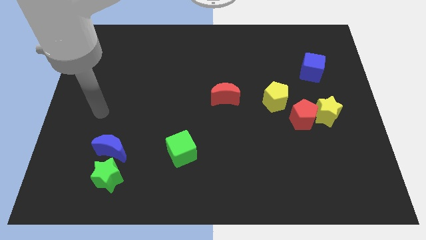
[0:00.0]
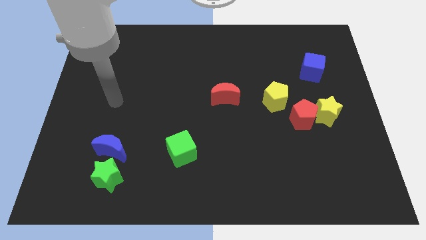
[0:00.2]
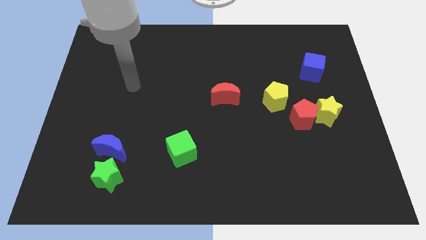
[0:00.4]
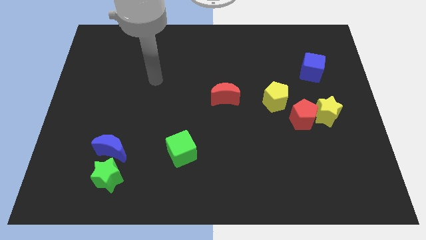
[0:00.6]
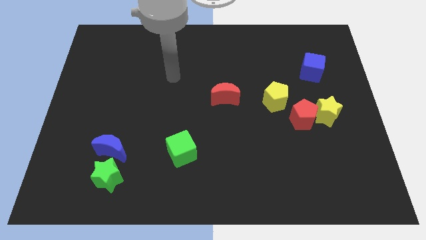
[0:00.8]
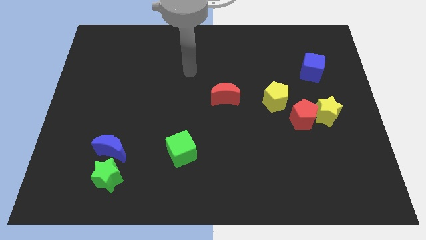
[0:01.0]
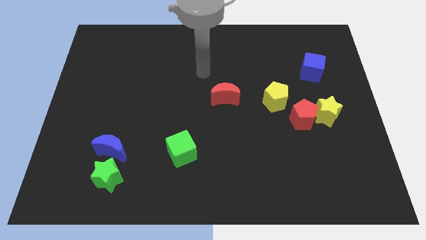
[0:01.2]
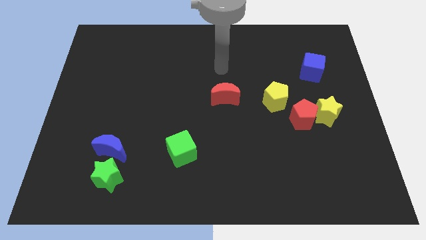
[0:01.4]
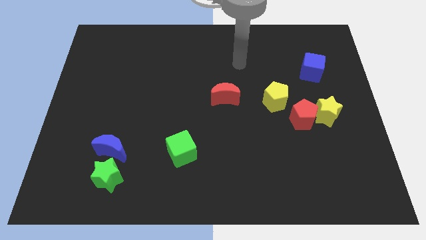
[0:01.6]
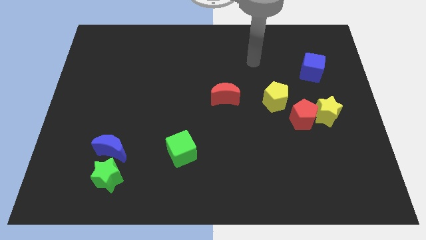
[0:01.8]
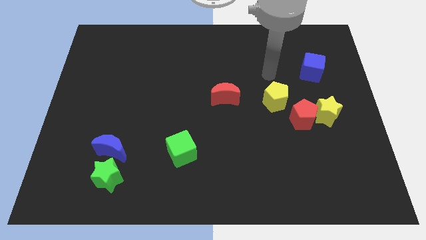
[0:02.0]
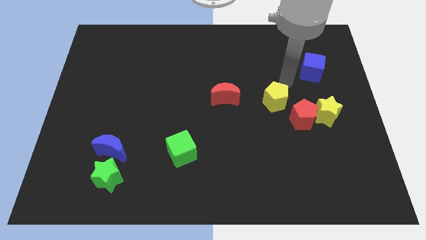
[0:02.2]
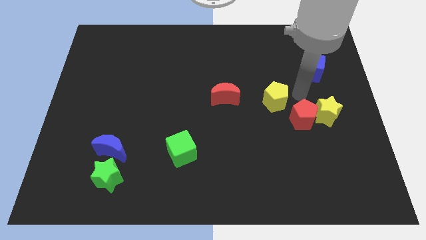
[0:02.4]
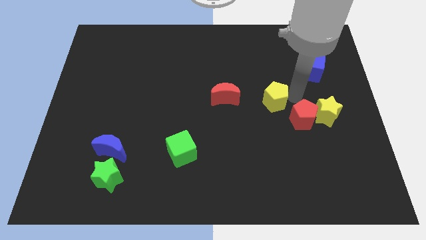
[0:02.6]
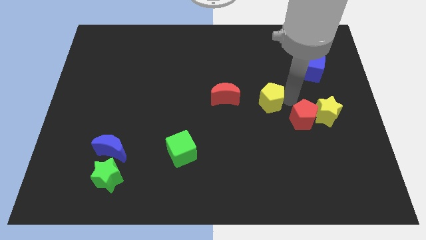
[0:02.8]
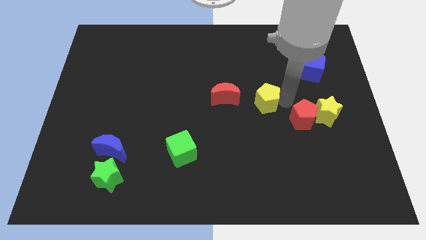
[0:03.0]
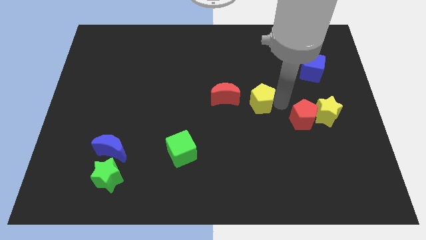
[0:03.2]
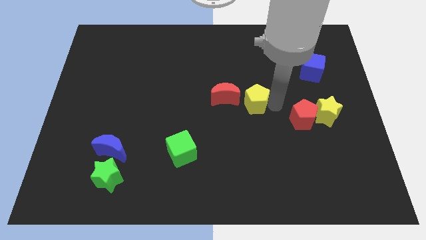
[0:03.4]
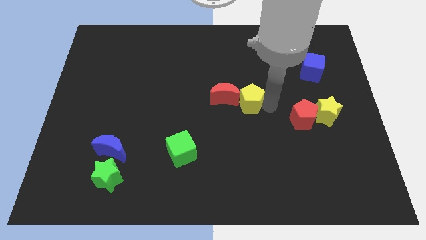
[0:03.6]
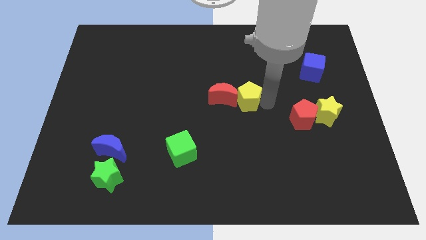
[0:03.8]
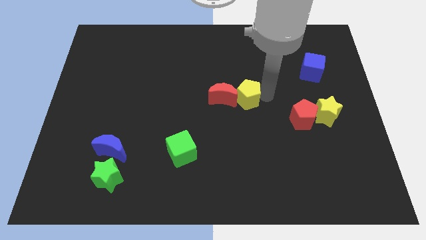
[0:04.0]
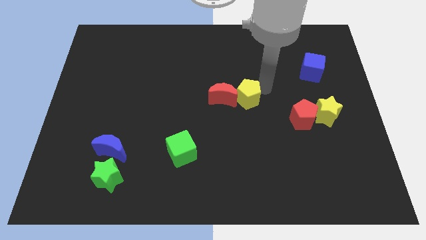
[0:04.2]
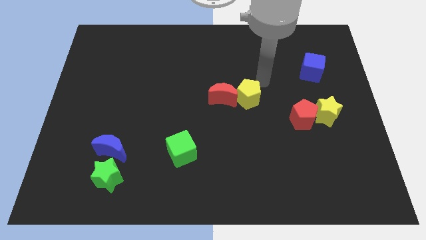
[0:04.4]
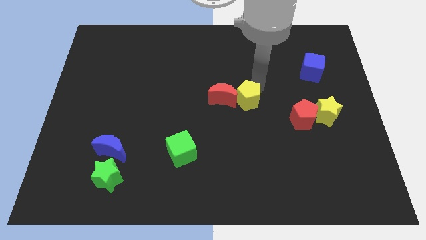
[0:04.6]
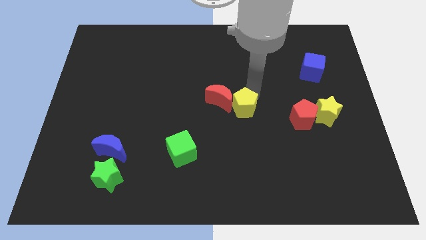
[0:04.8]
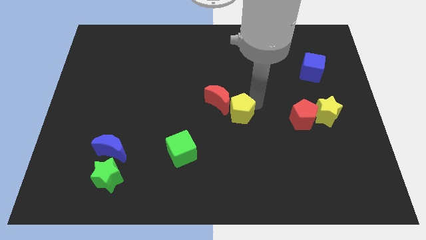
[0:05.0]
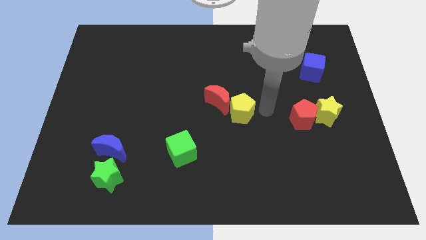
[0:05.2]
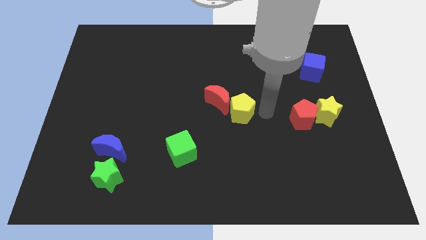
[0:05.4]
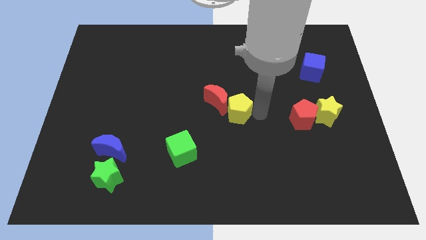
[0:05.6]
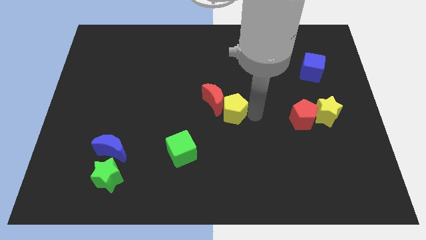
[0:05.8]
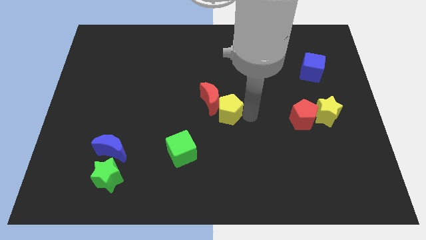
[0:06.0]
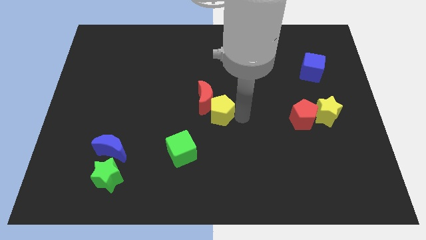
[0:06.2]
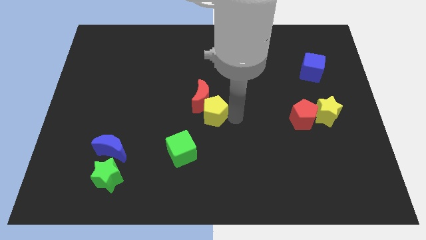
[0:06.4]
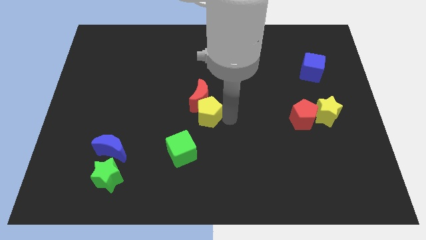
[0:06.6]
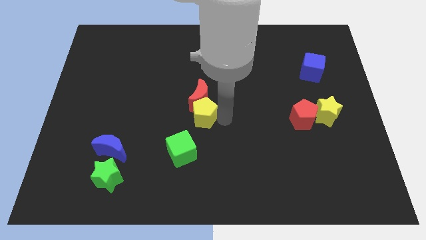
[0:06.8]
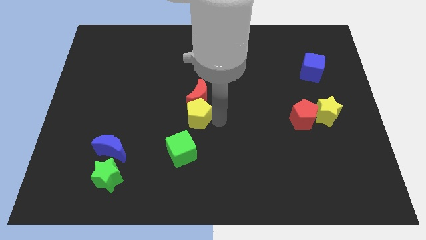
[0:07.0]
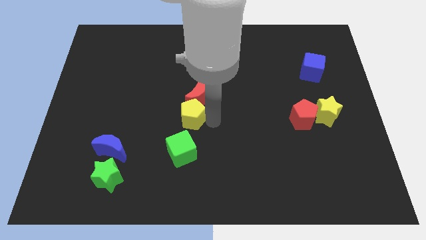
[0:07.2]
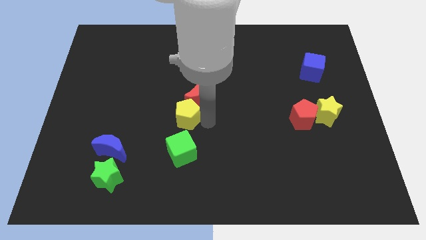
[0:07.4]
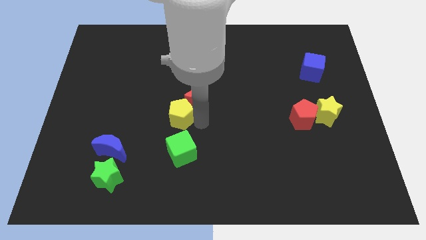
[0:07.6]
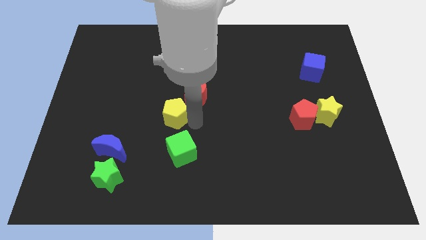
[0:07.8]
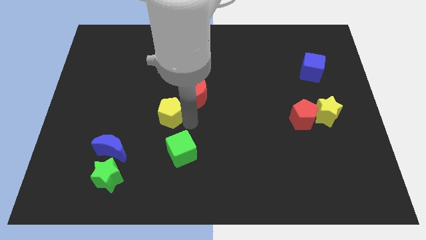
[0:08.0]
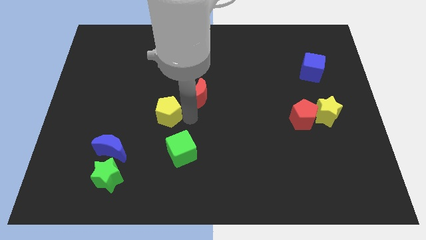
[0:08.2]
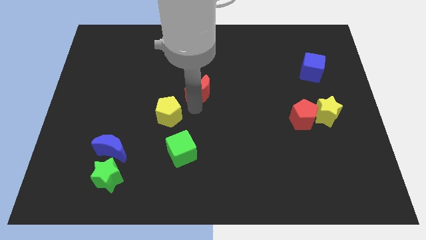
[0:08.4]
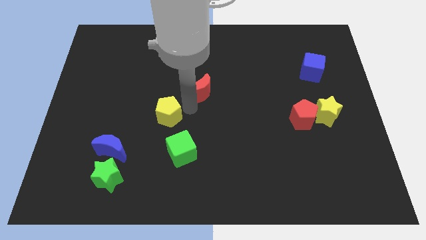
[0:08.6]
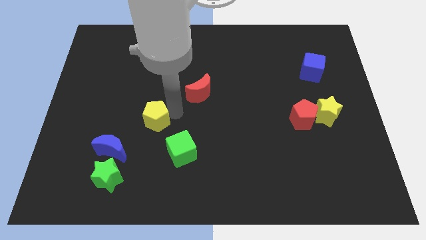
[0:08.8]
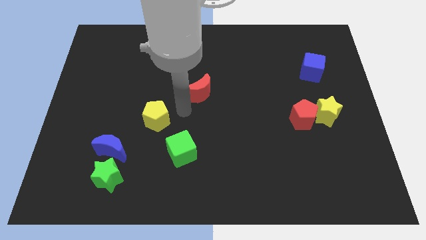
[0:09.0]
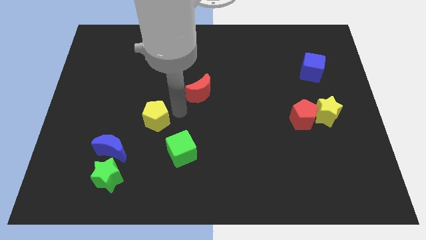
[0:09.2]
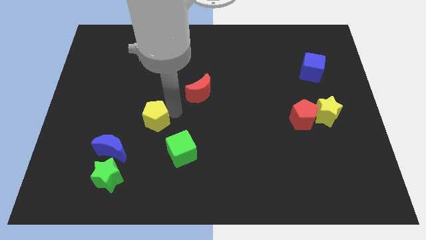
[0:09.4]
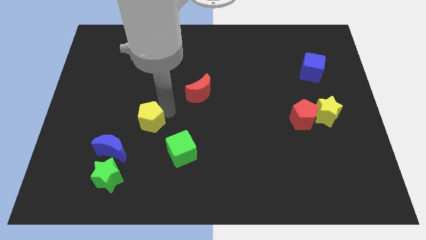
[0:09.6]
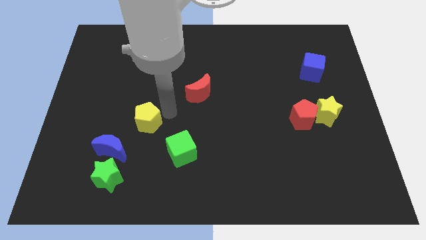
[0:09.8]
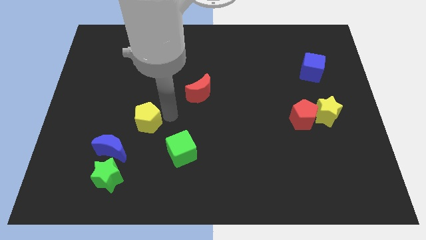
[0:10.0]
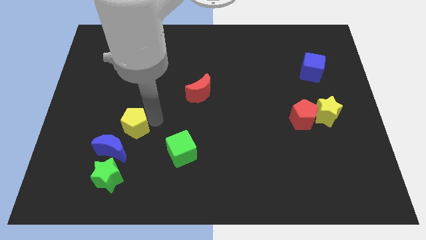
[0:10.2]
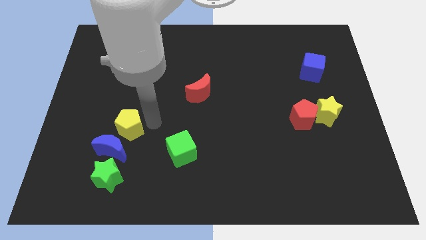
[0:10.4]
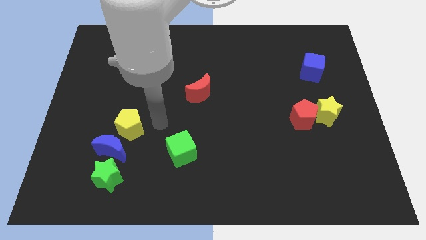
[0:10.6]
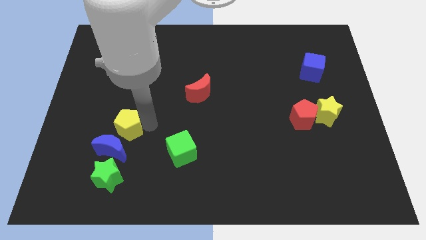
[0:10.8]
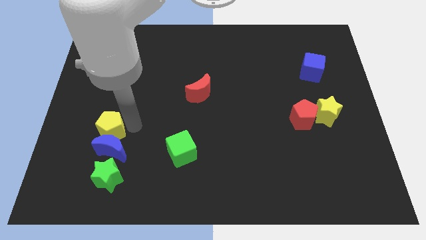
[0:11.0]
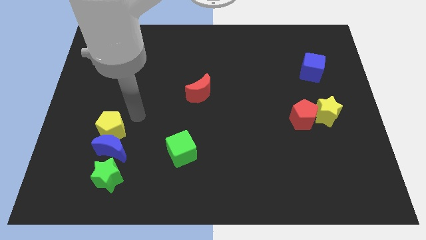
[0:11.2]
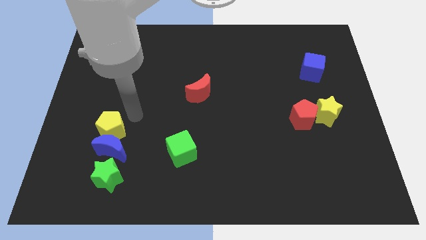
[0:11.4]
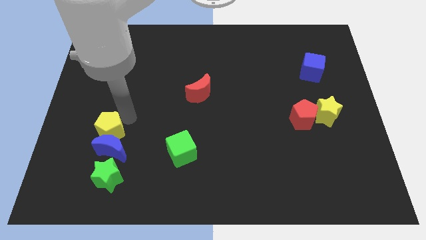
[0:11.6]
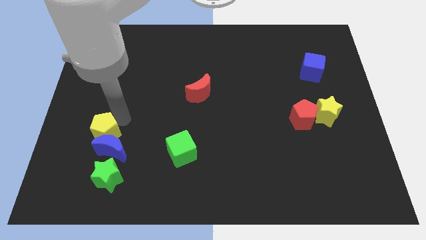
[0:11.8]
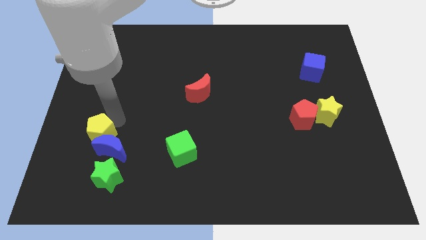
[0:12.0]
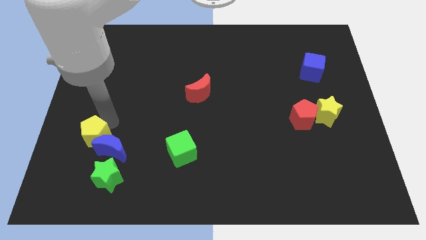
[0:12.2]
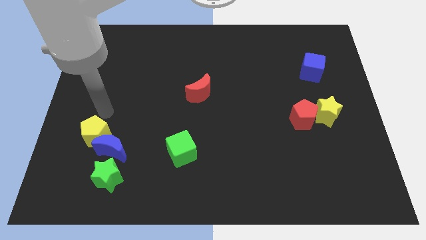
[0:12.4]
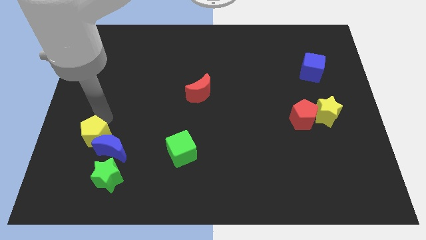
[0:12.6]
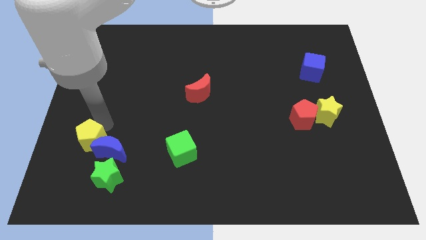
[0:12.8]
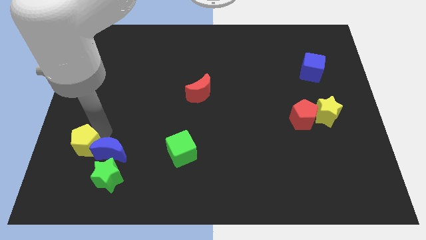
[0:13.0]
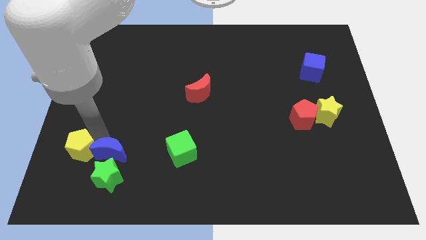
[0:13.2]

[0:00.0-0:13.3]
slide the yellow pentagon diagonally down and to the left of the blue moon
